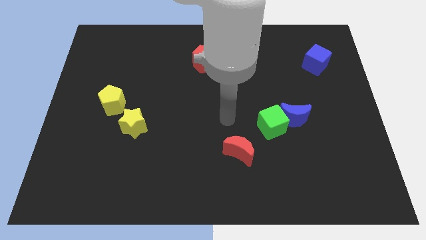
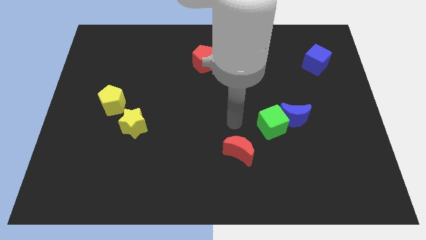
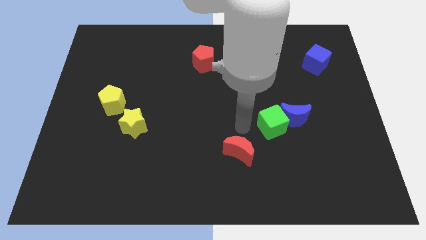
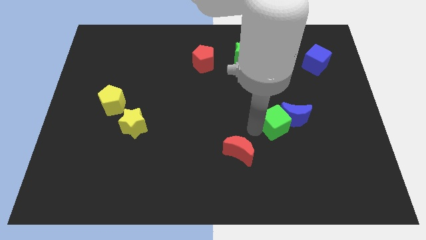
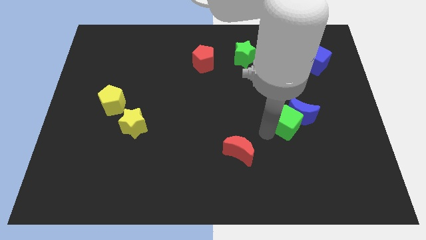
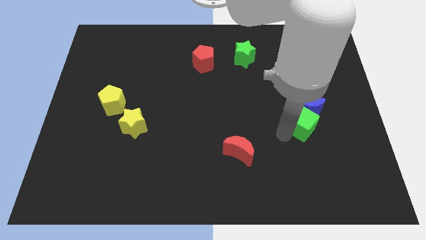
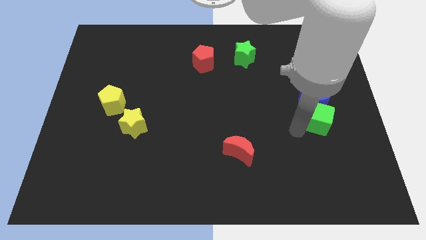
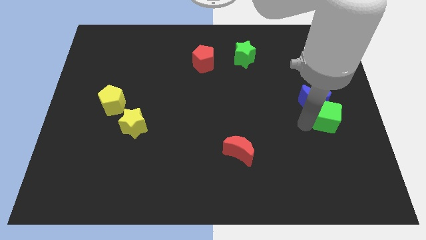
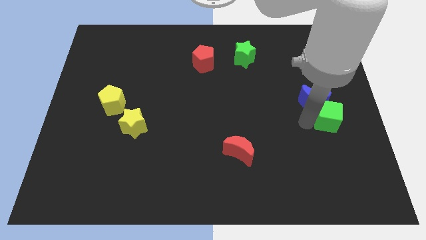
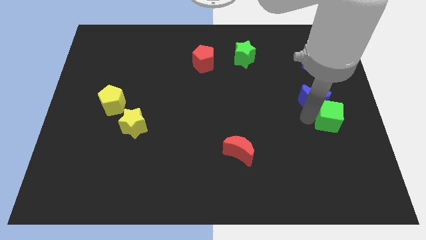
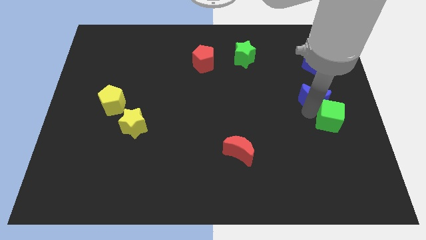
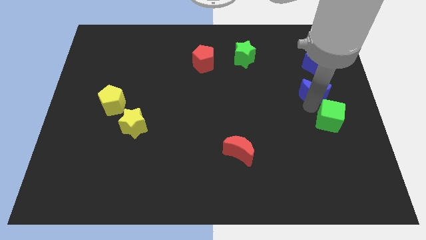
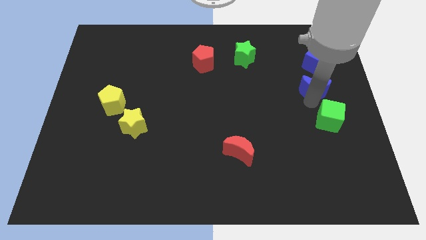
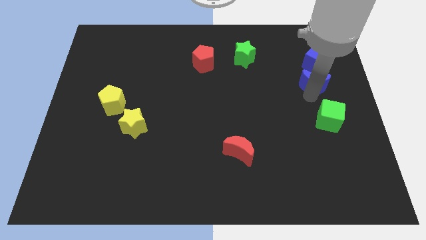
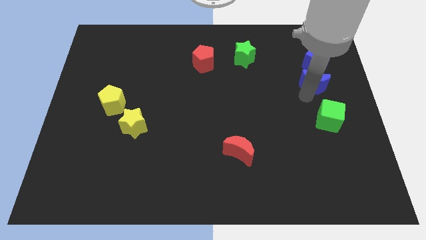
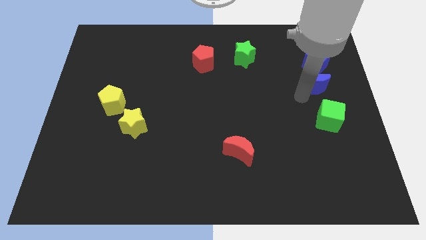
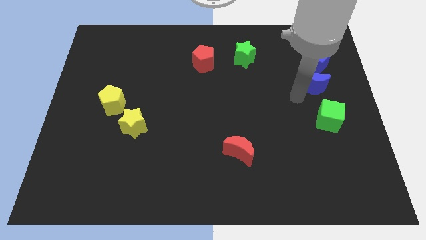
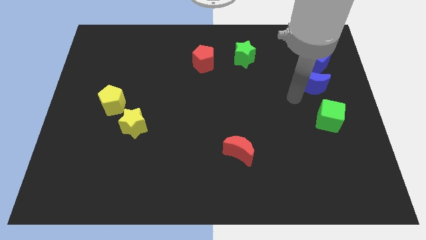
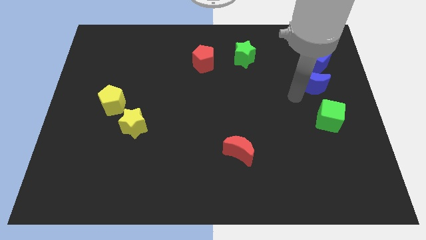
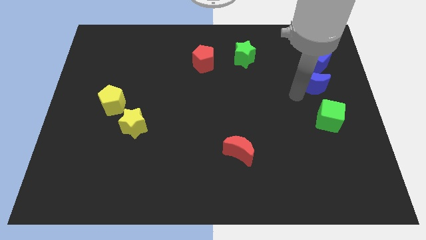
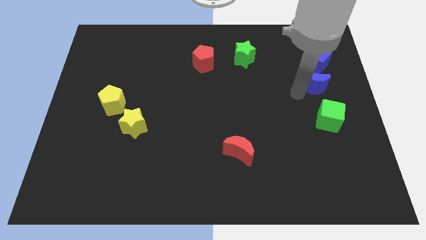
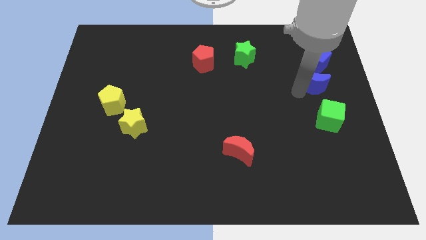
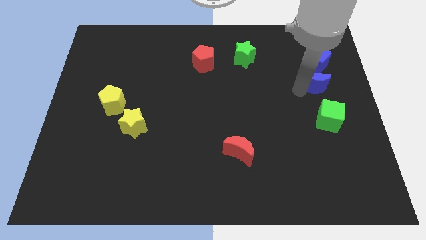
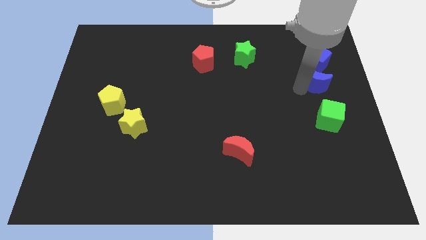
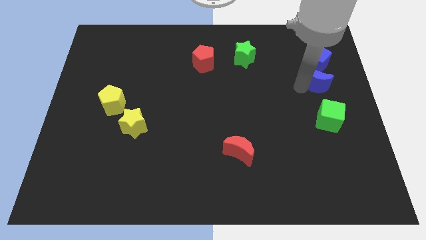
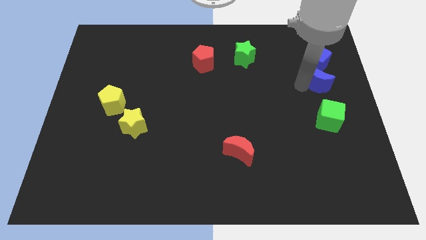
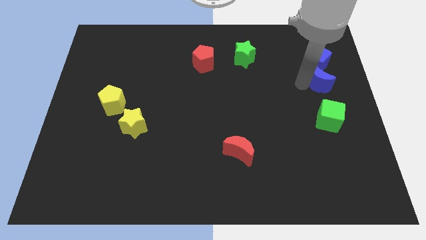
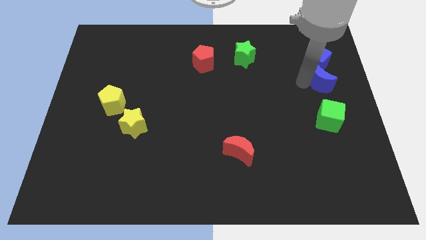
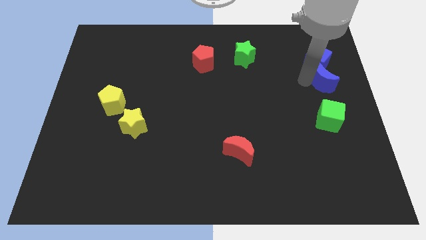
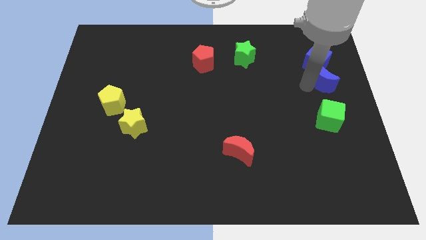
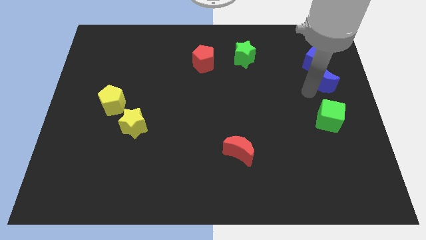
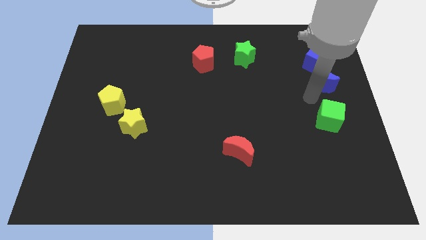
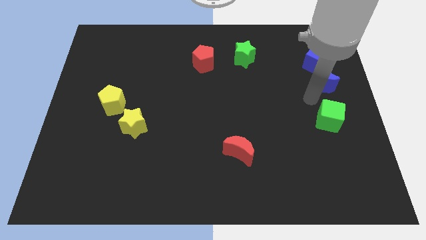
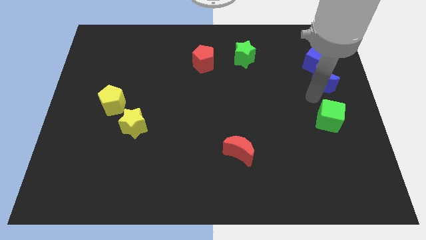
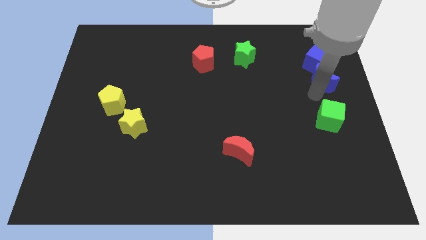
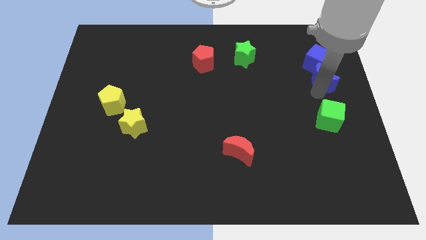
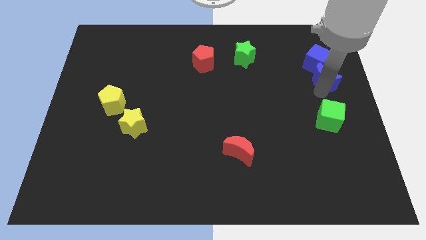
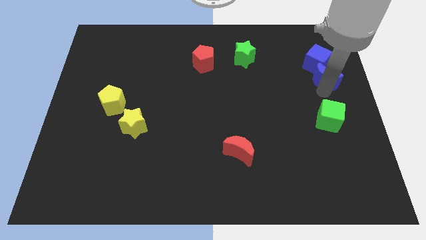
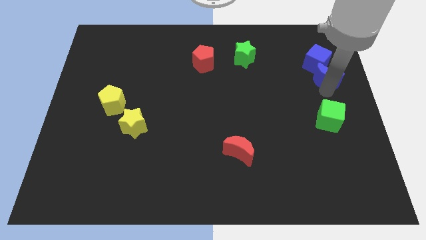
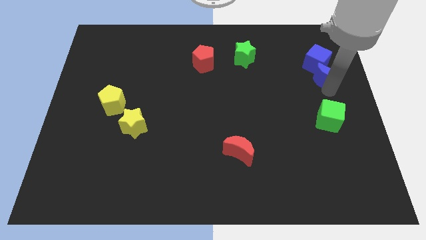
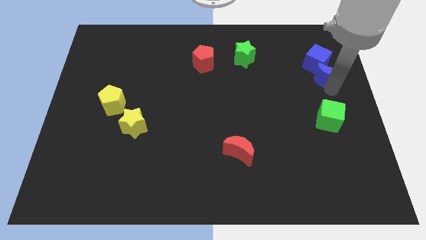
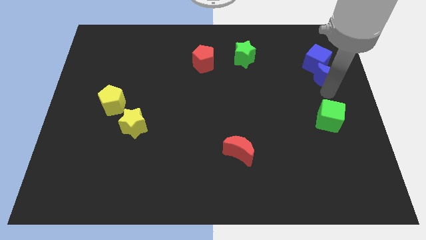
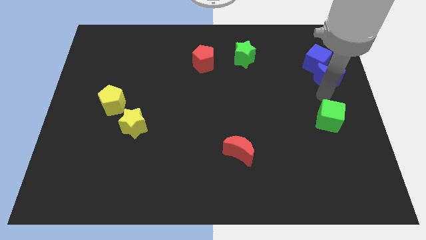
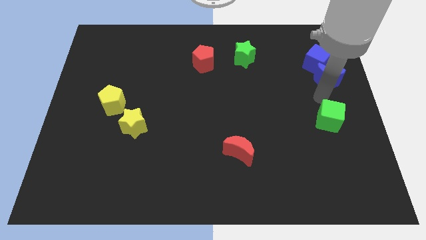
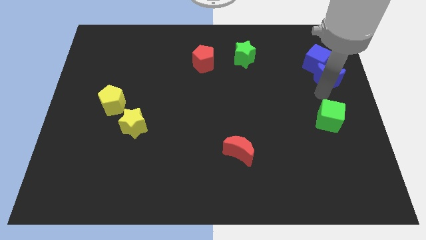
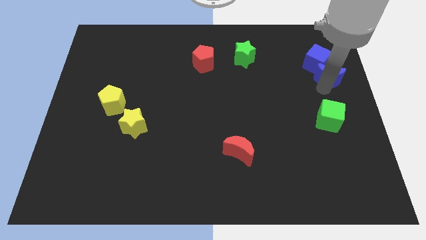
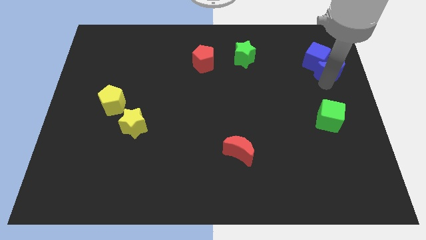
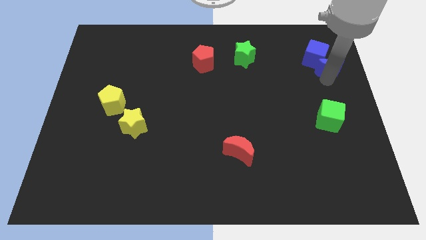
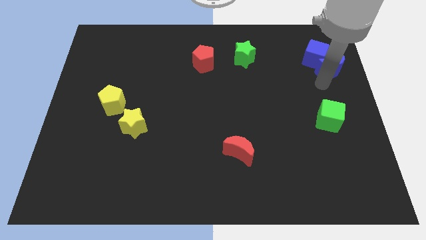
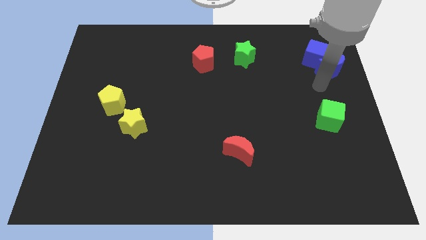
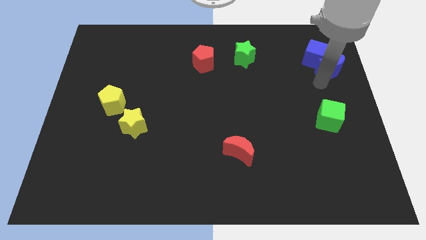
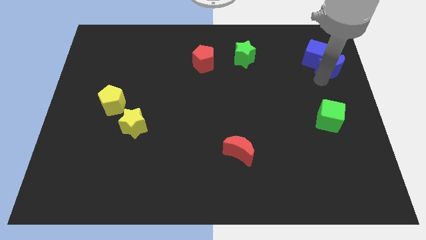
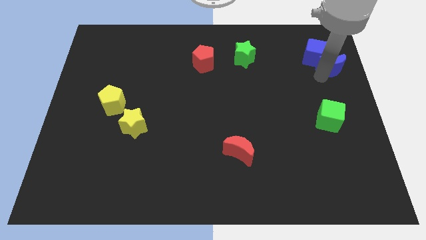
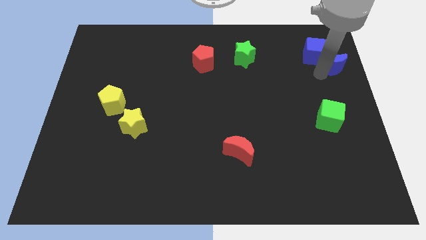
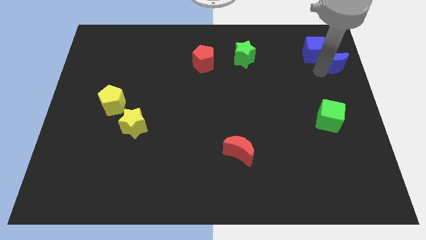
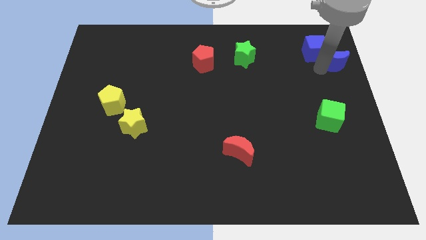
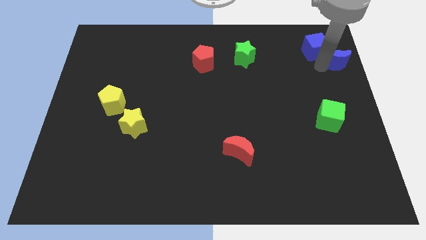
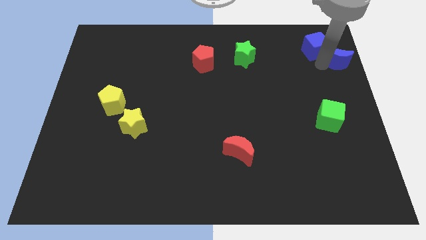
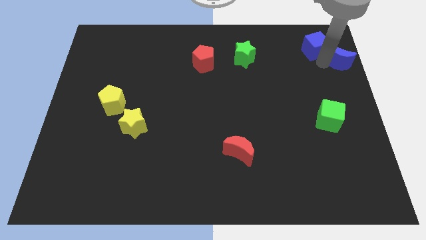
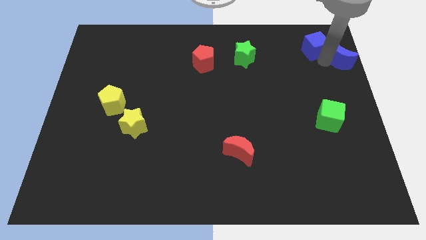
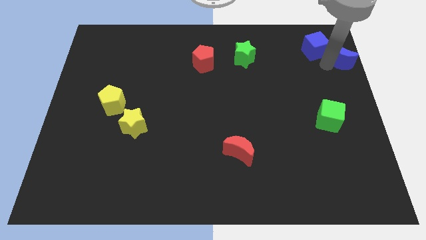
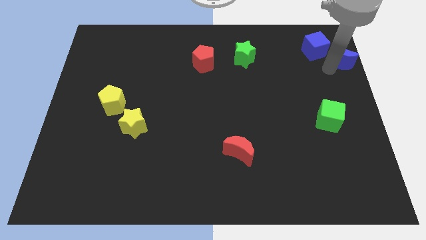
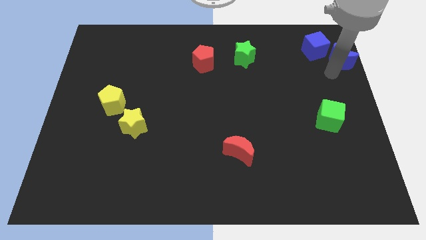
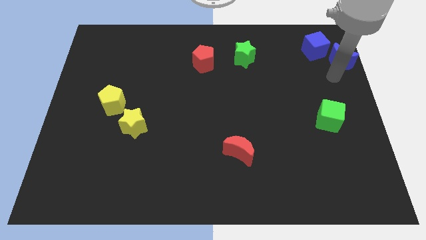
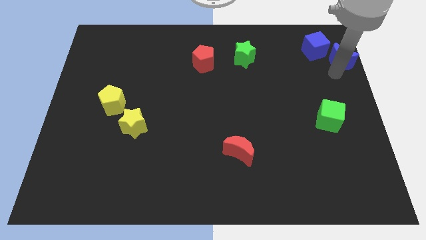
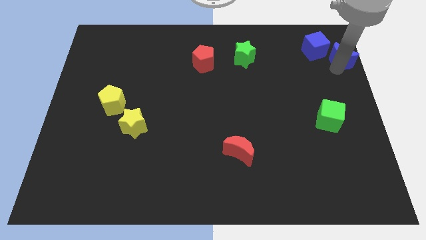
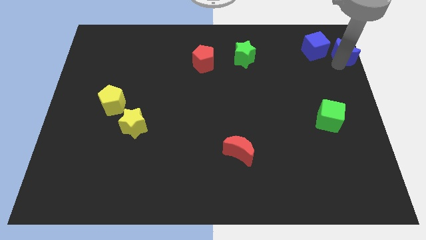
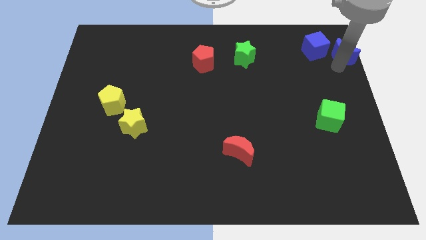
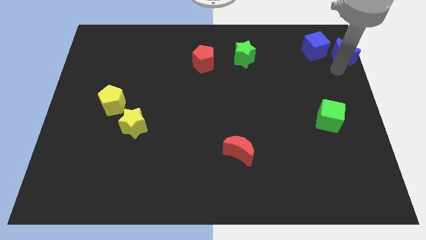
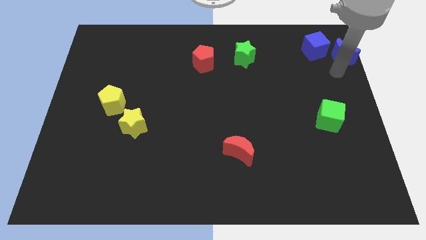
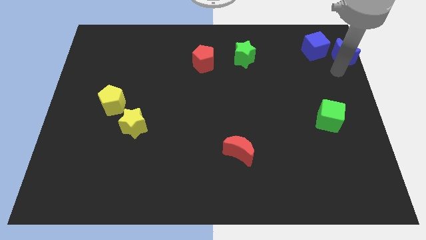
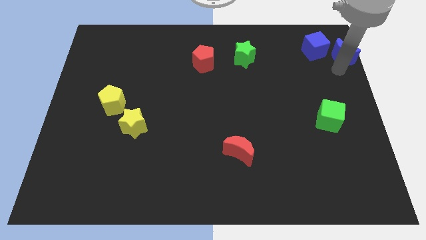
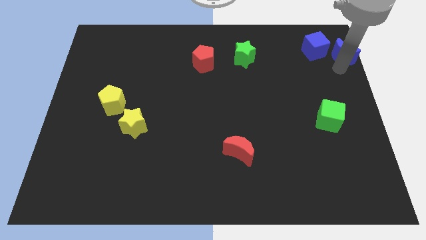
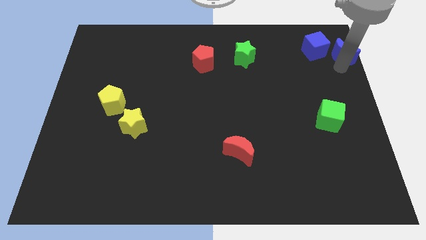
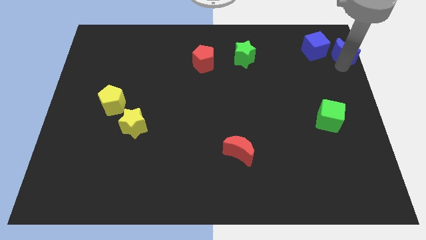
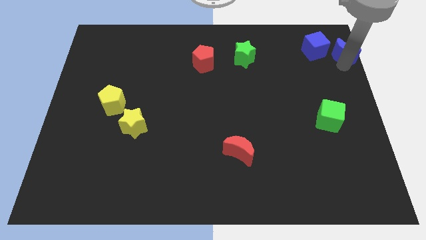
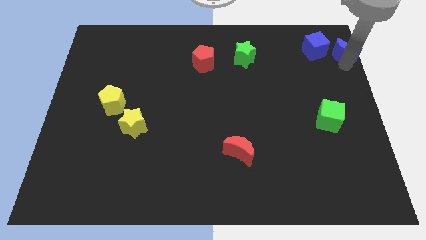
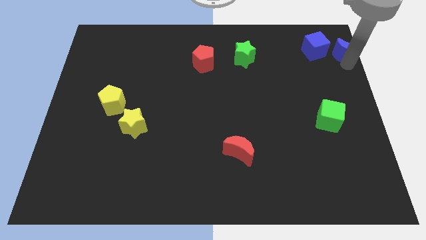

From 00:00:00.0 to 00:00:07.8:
put the blue moon to the upper right corner
